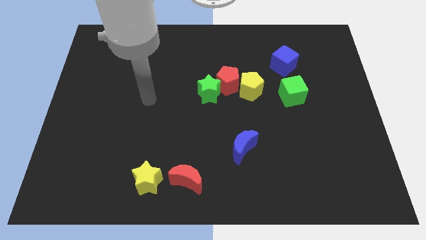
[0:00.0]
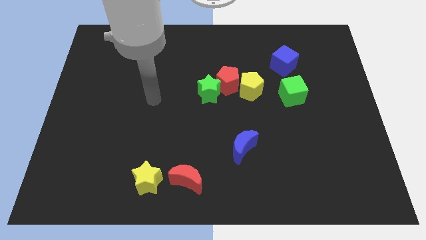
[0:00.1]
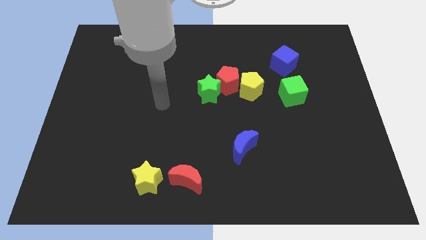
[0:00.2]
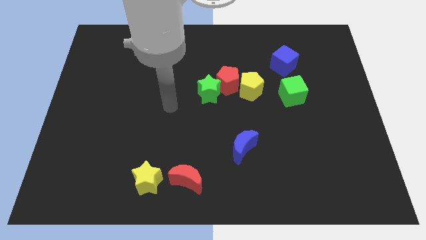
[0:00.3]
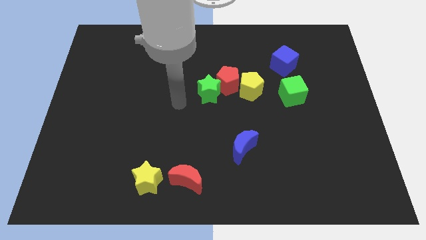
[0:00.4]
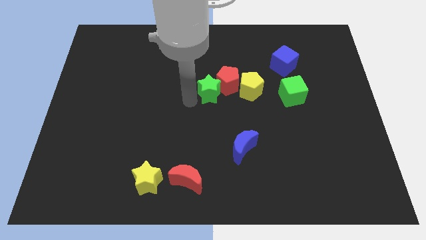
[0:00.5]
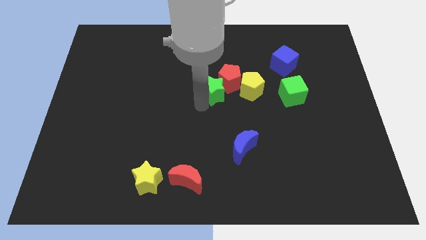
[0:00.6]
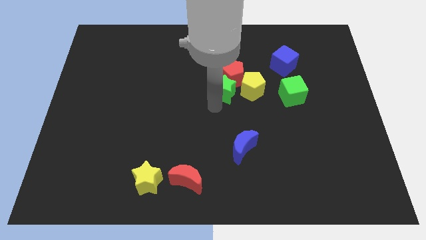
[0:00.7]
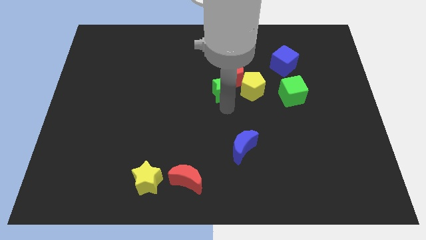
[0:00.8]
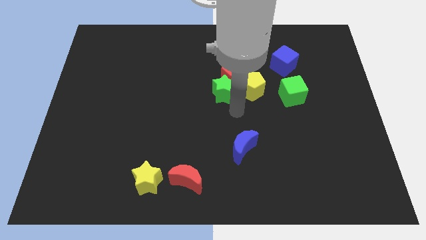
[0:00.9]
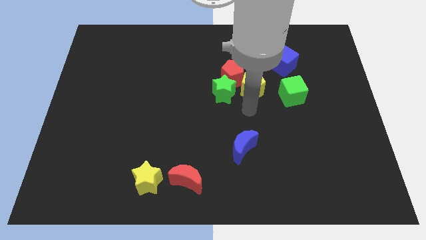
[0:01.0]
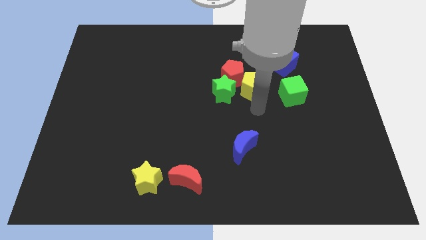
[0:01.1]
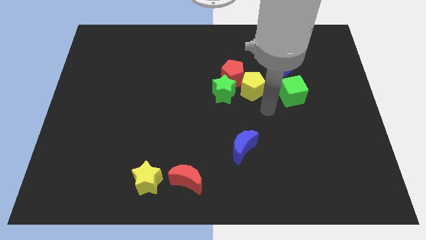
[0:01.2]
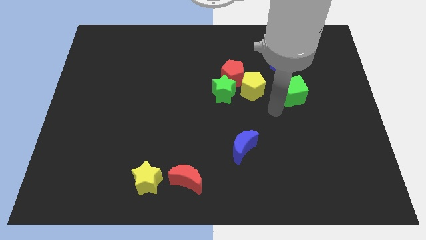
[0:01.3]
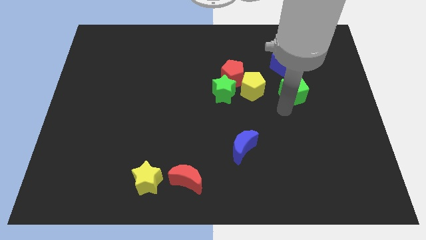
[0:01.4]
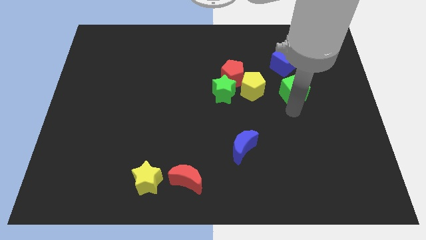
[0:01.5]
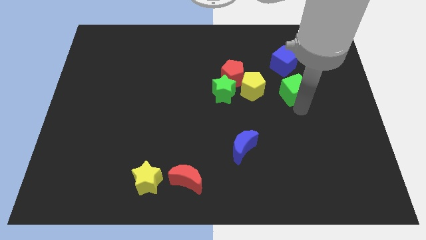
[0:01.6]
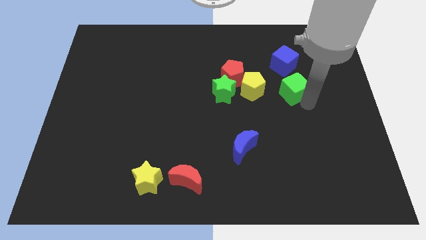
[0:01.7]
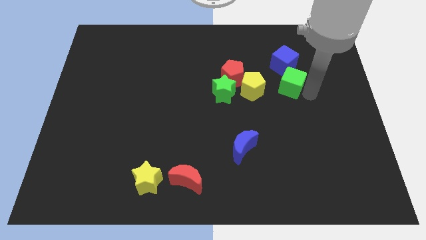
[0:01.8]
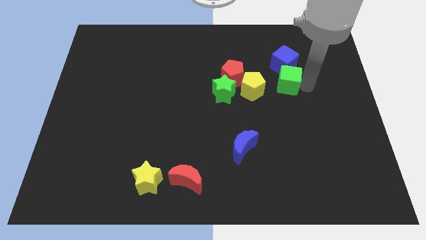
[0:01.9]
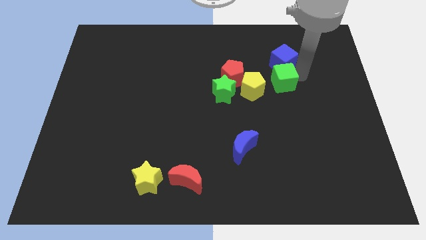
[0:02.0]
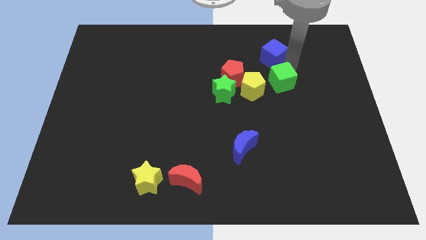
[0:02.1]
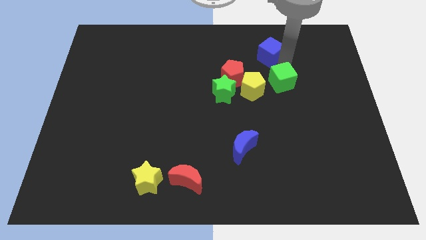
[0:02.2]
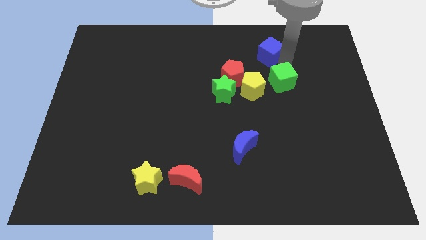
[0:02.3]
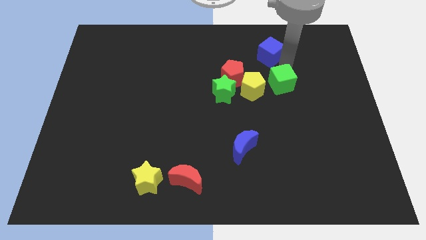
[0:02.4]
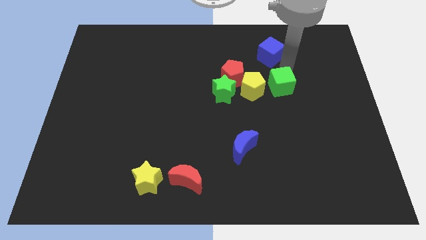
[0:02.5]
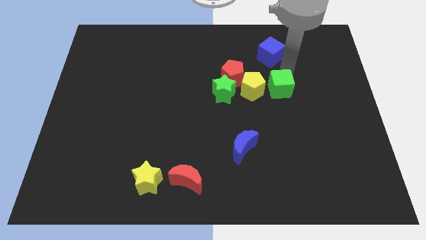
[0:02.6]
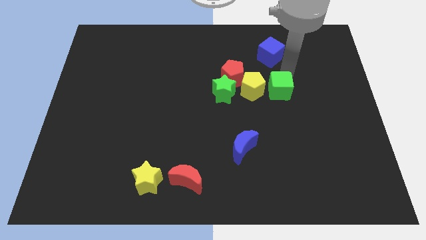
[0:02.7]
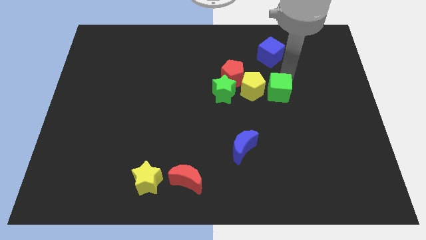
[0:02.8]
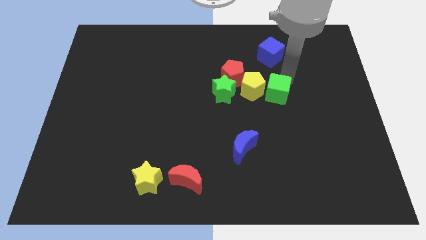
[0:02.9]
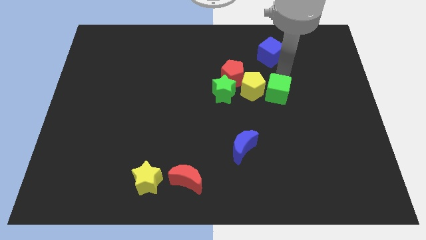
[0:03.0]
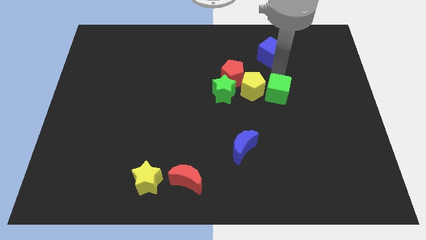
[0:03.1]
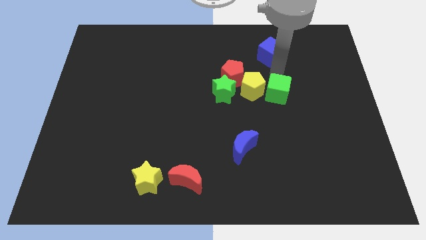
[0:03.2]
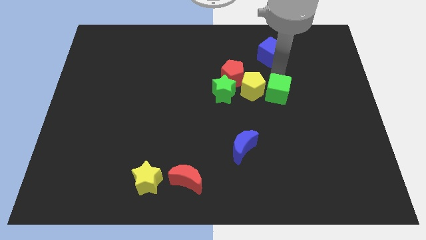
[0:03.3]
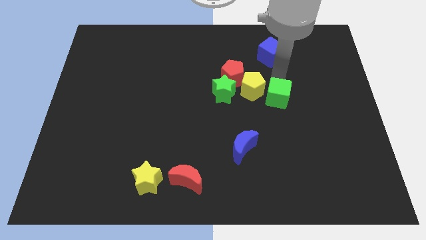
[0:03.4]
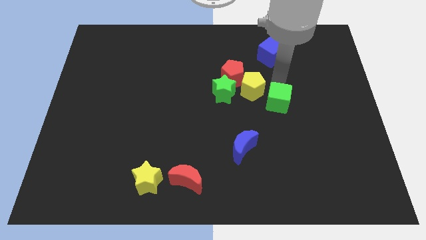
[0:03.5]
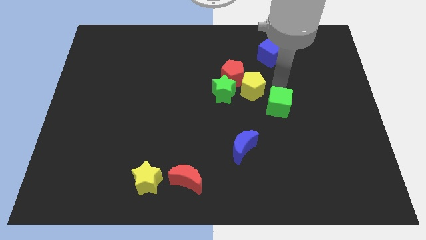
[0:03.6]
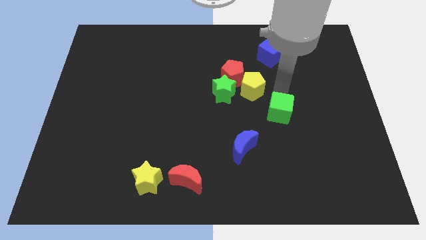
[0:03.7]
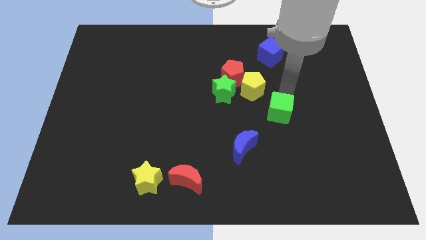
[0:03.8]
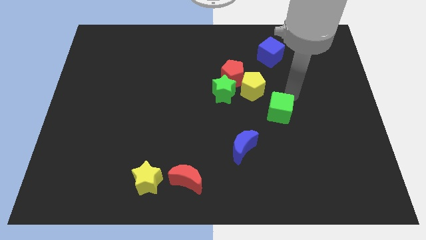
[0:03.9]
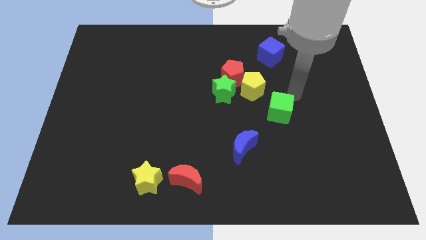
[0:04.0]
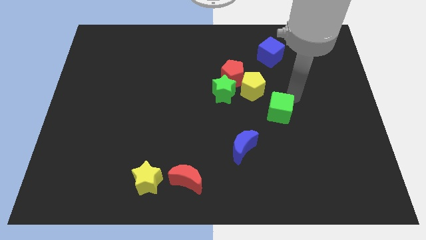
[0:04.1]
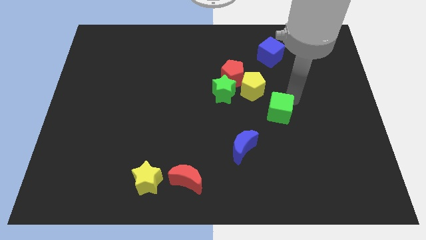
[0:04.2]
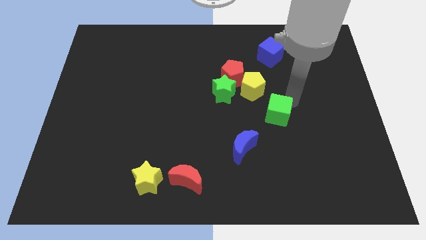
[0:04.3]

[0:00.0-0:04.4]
move the green cube diagonally up and to the right of the blue moon

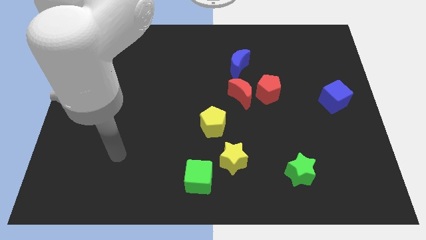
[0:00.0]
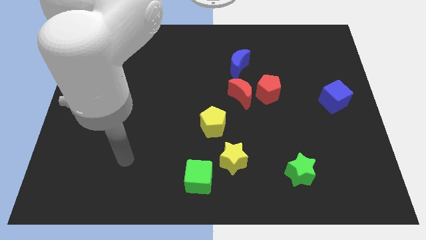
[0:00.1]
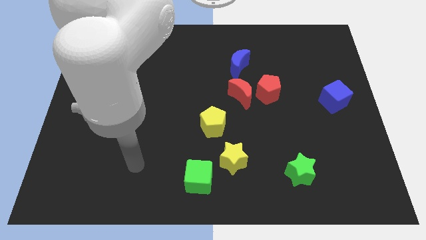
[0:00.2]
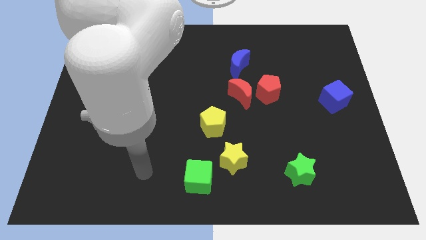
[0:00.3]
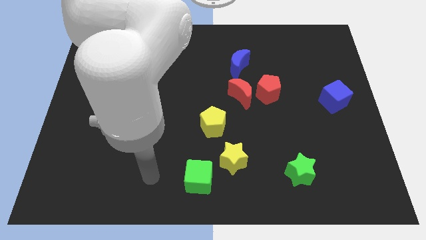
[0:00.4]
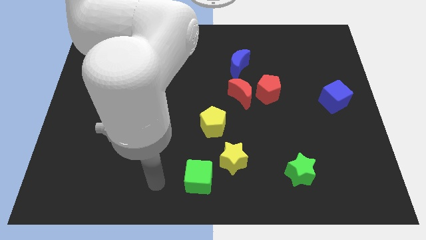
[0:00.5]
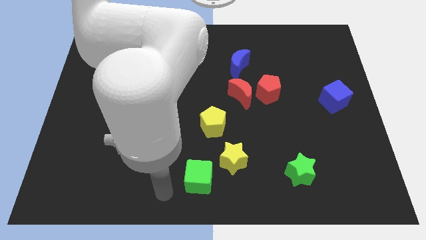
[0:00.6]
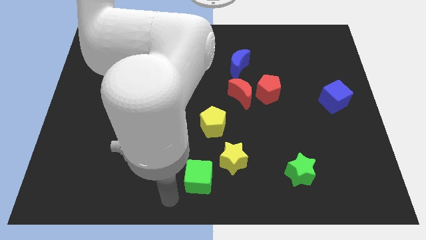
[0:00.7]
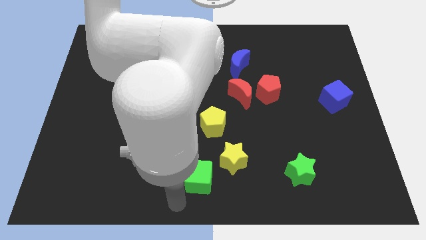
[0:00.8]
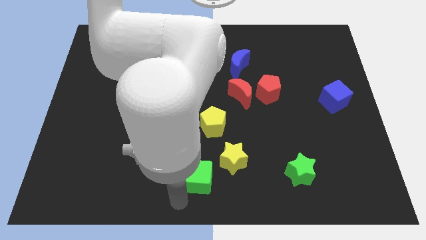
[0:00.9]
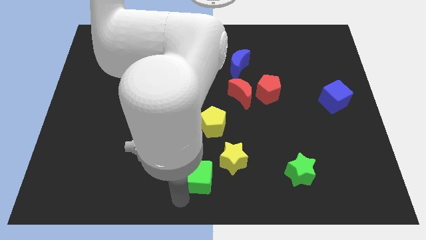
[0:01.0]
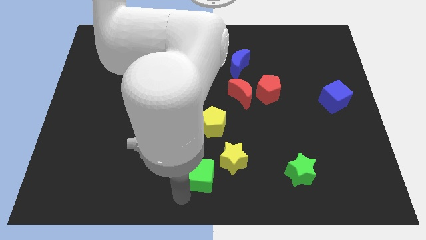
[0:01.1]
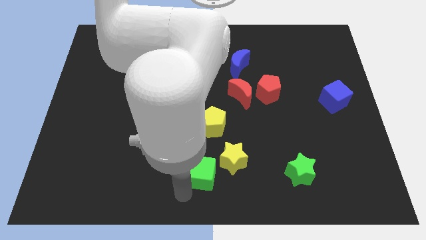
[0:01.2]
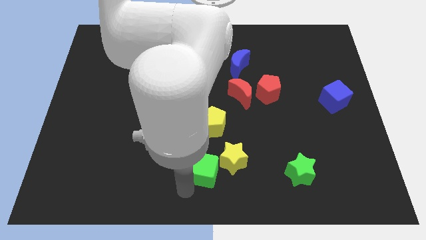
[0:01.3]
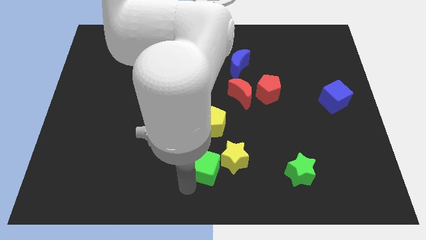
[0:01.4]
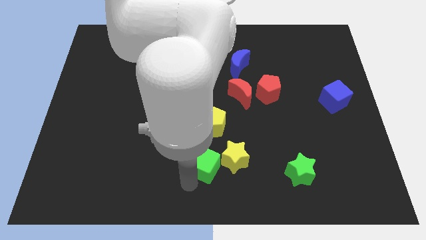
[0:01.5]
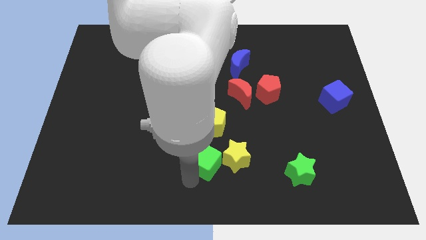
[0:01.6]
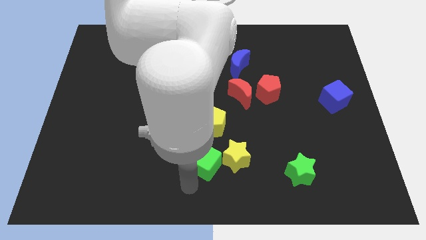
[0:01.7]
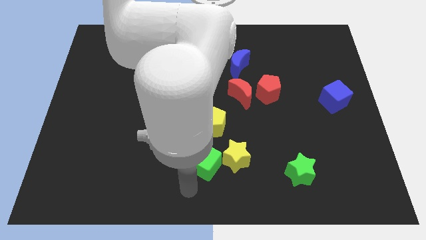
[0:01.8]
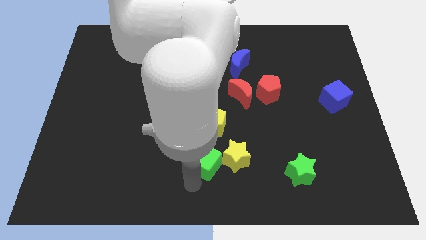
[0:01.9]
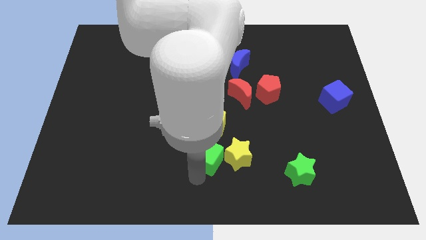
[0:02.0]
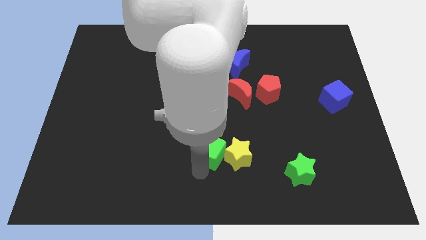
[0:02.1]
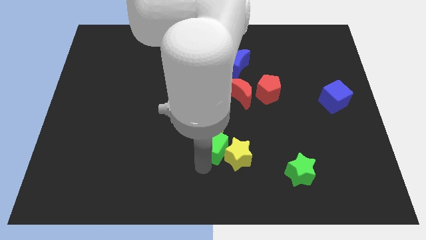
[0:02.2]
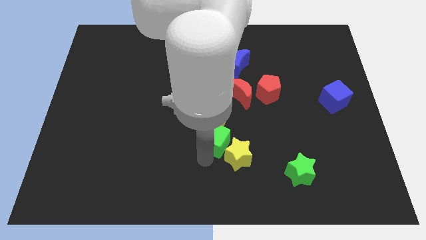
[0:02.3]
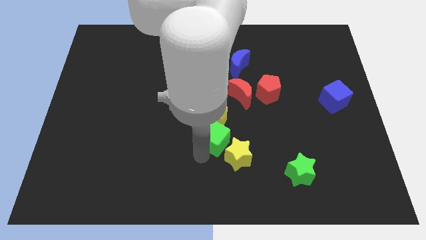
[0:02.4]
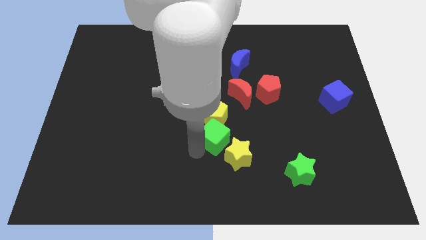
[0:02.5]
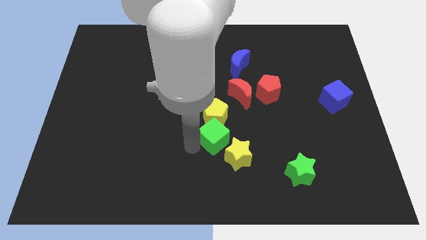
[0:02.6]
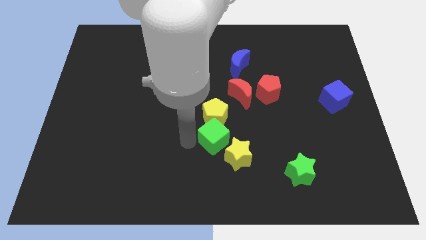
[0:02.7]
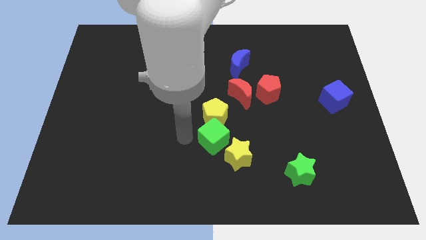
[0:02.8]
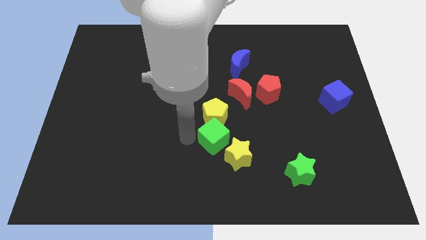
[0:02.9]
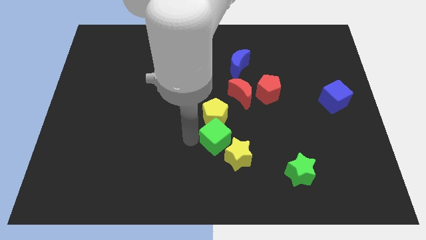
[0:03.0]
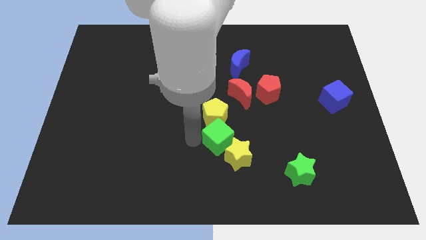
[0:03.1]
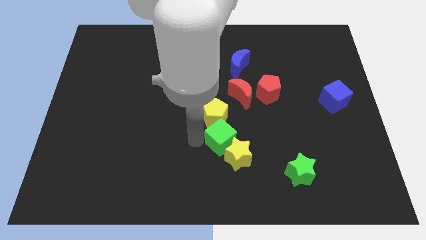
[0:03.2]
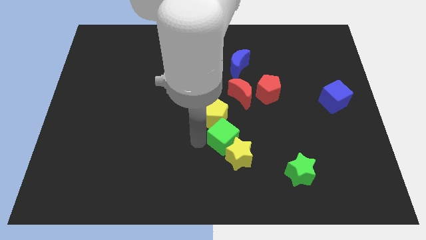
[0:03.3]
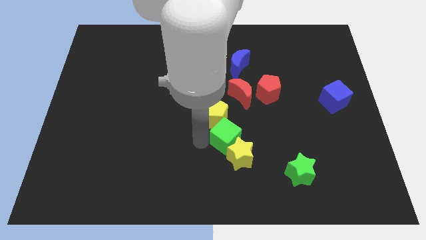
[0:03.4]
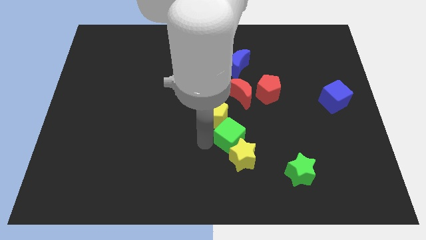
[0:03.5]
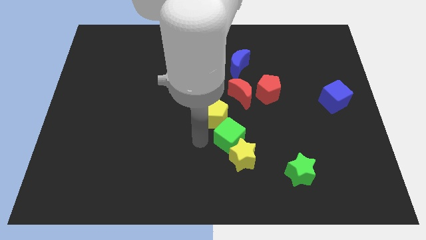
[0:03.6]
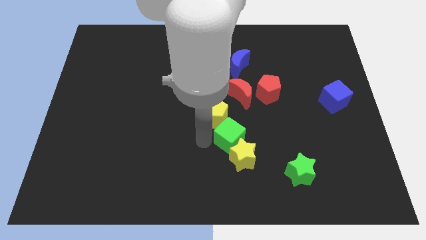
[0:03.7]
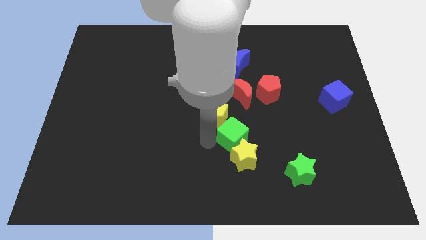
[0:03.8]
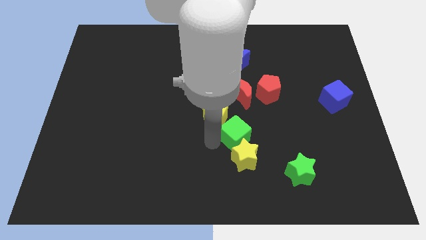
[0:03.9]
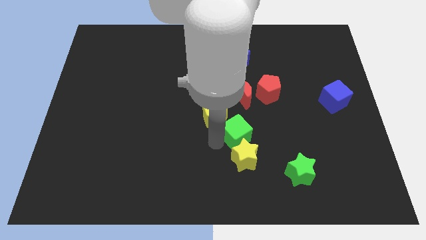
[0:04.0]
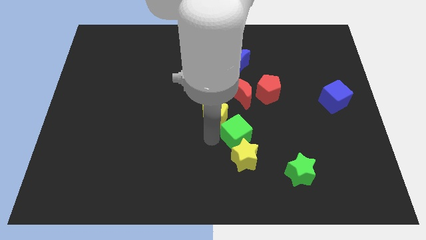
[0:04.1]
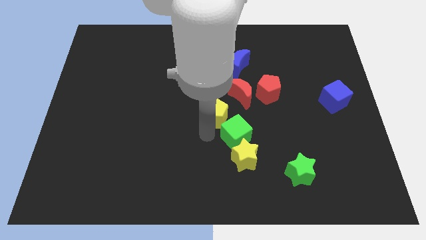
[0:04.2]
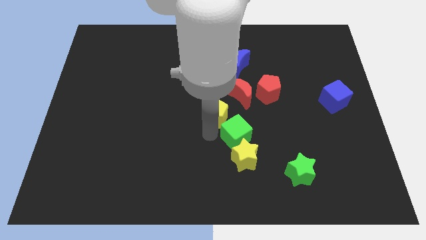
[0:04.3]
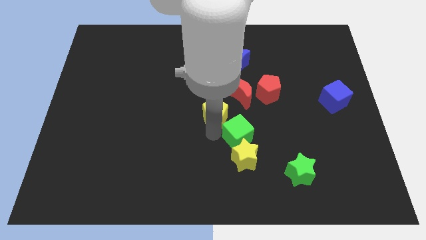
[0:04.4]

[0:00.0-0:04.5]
put the green cube to the top right side of the yellow star
